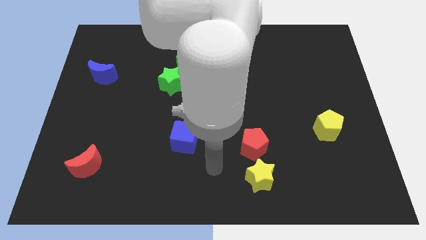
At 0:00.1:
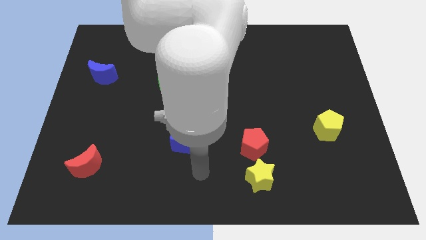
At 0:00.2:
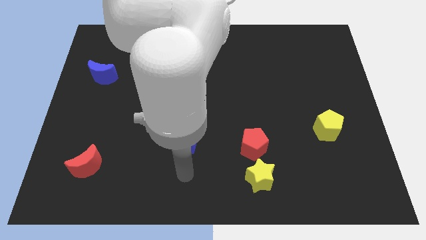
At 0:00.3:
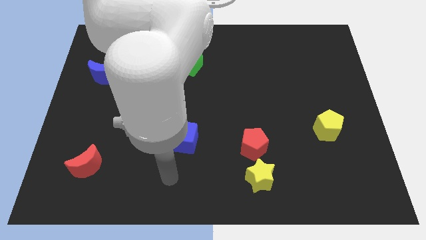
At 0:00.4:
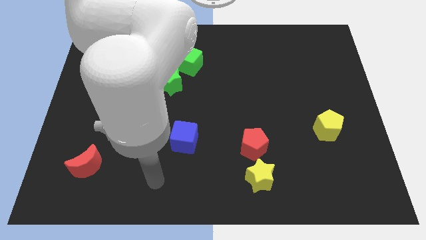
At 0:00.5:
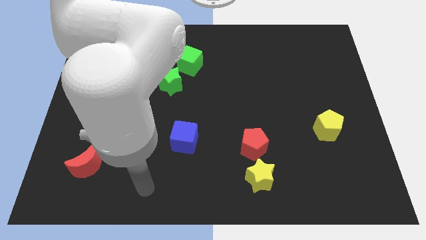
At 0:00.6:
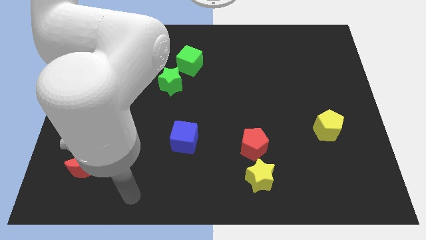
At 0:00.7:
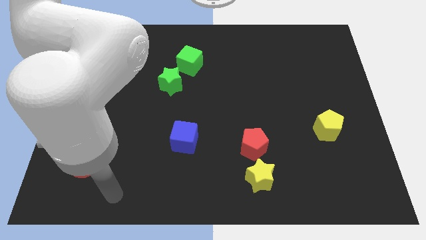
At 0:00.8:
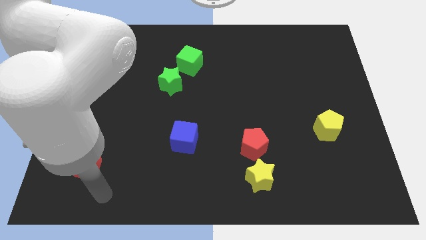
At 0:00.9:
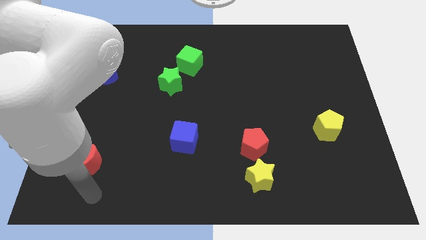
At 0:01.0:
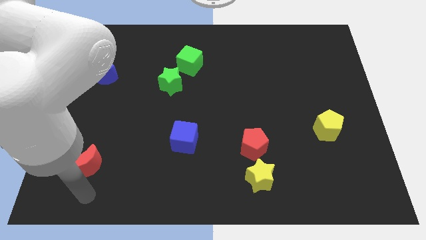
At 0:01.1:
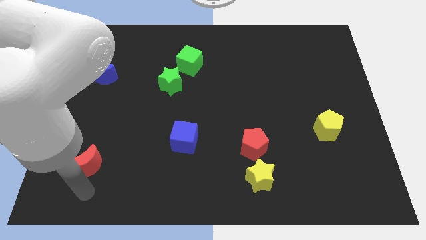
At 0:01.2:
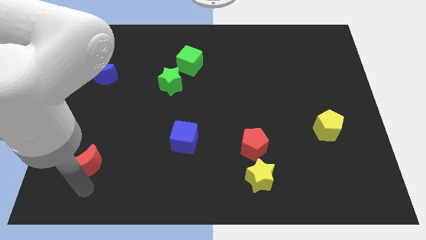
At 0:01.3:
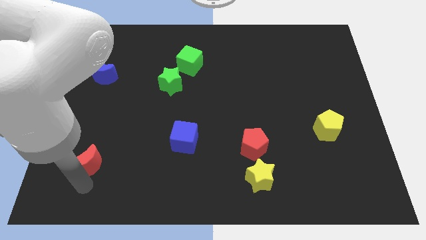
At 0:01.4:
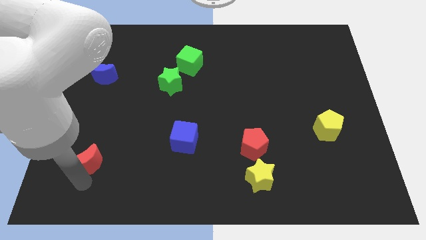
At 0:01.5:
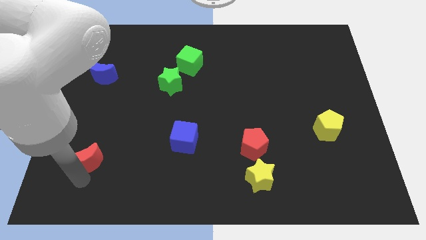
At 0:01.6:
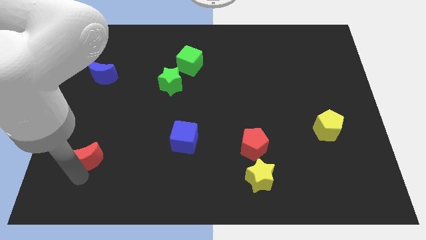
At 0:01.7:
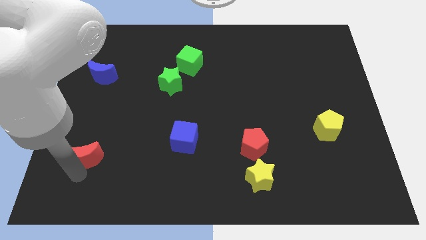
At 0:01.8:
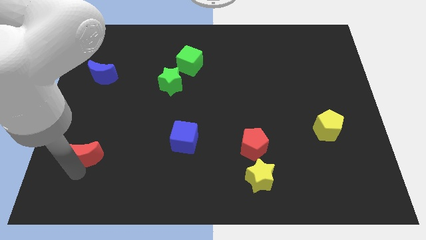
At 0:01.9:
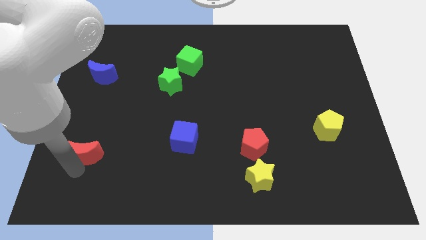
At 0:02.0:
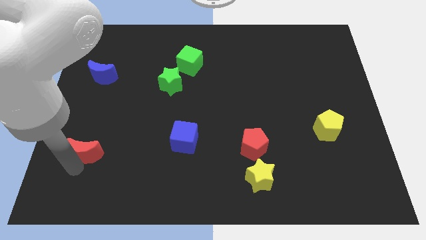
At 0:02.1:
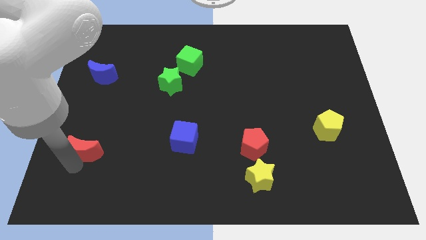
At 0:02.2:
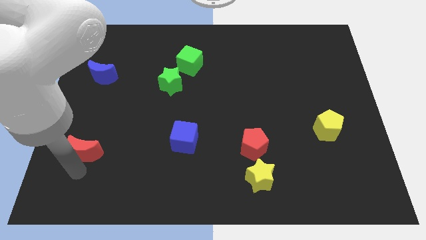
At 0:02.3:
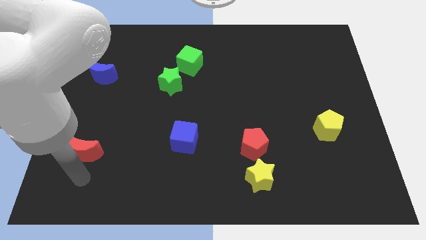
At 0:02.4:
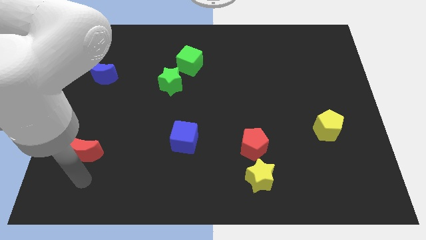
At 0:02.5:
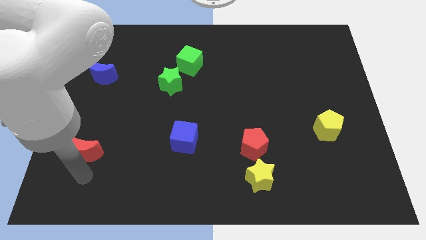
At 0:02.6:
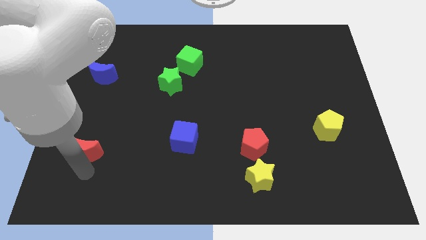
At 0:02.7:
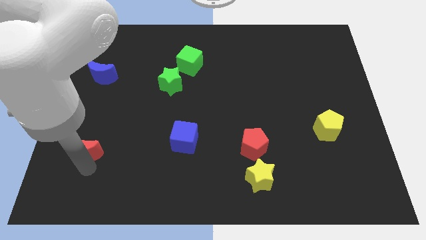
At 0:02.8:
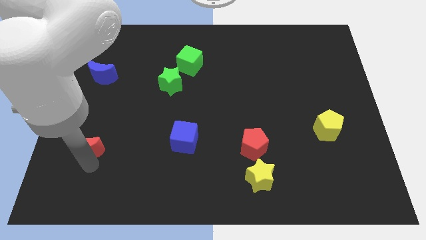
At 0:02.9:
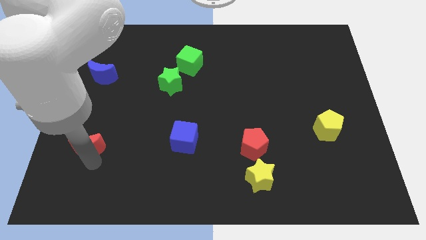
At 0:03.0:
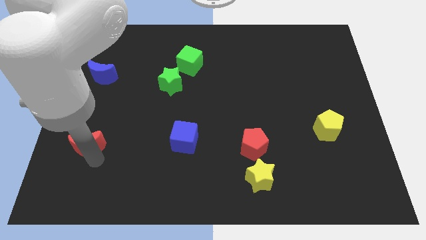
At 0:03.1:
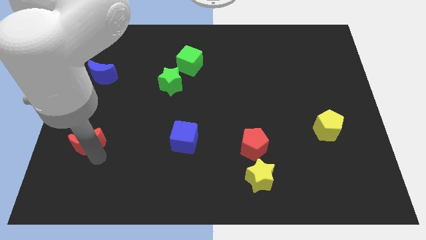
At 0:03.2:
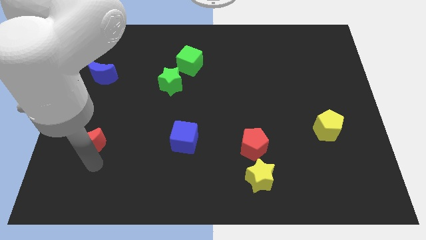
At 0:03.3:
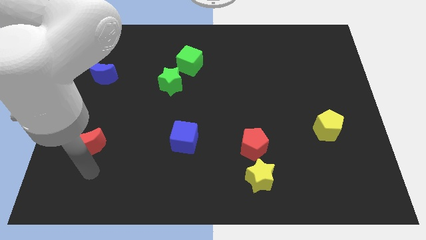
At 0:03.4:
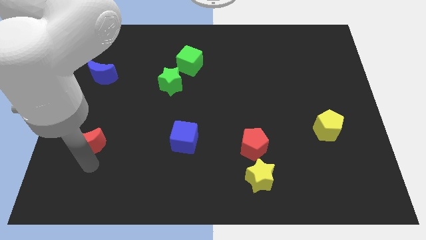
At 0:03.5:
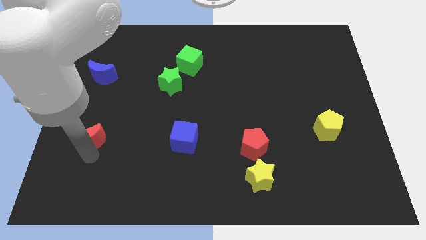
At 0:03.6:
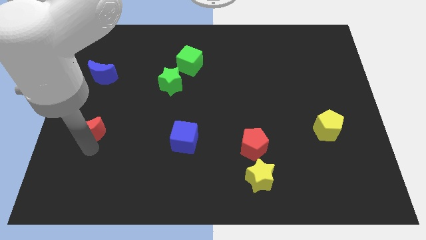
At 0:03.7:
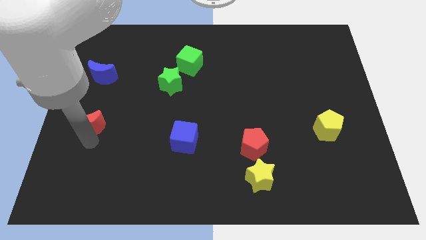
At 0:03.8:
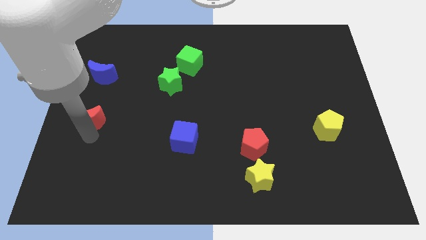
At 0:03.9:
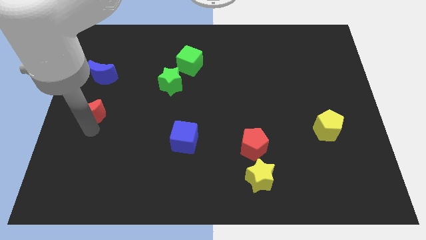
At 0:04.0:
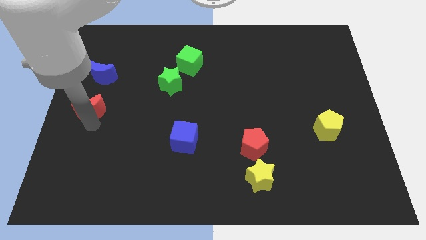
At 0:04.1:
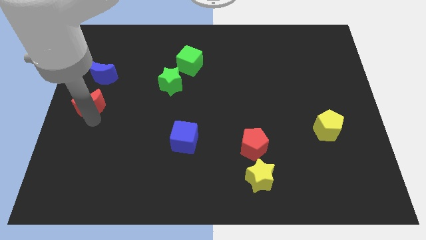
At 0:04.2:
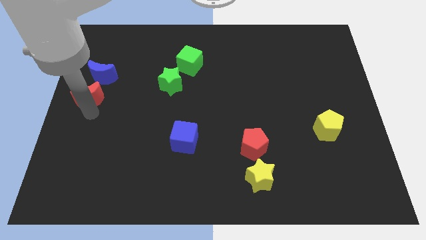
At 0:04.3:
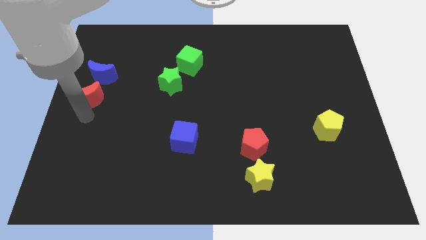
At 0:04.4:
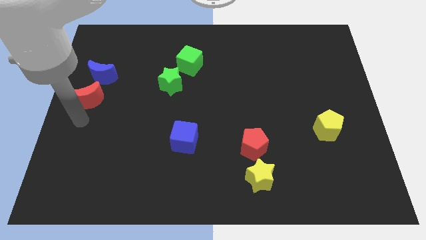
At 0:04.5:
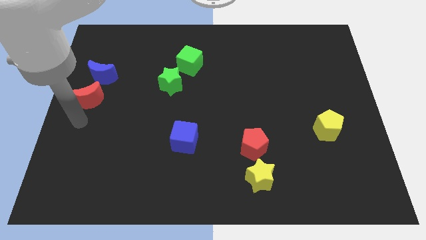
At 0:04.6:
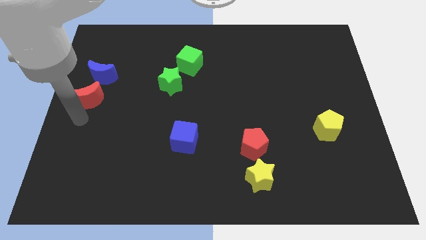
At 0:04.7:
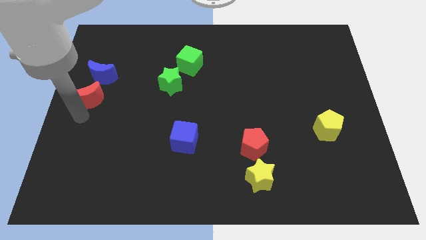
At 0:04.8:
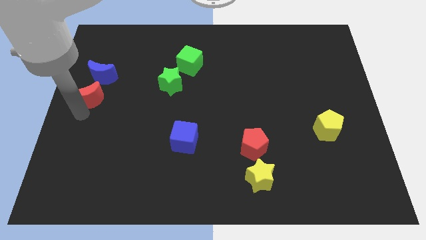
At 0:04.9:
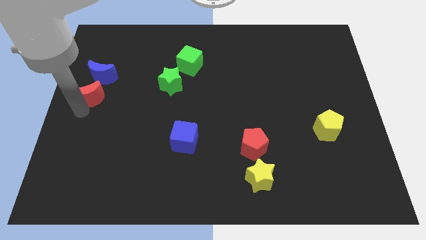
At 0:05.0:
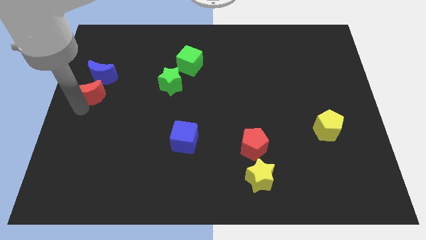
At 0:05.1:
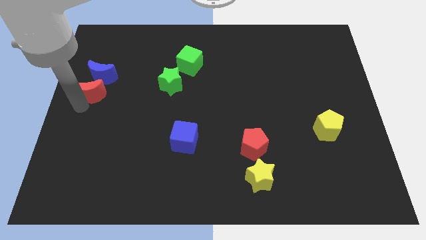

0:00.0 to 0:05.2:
move the red moon next to the blue moon

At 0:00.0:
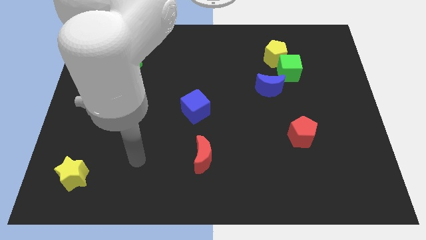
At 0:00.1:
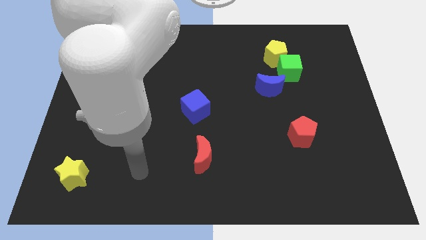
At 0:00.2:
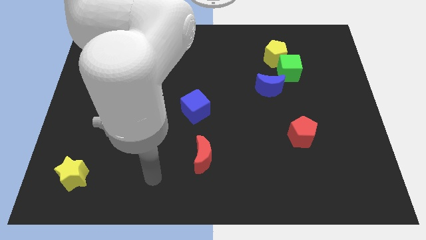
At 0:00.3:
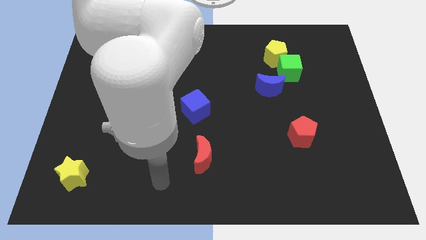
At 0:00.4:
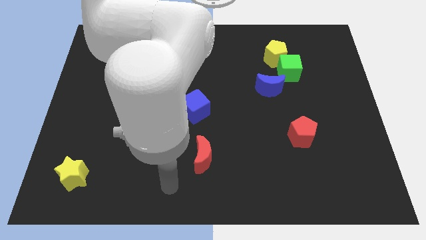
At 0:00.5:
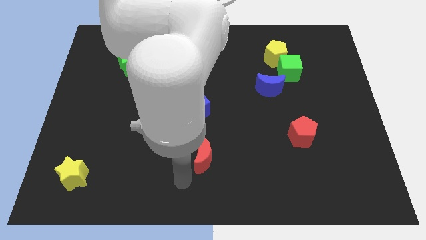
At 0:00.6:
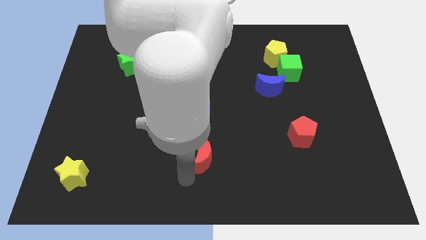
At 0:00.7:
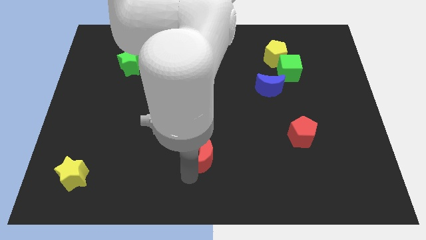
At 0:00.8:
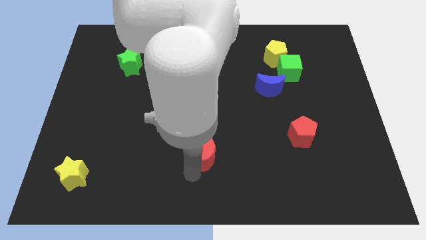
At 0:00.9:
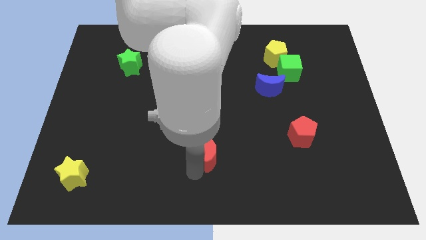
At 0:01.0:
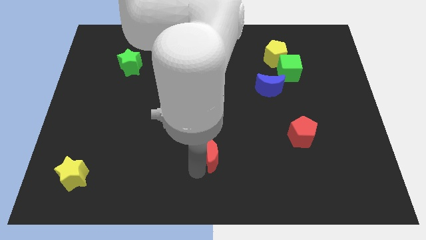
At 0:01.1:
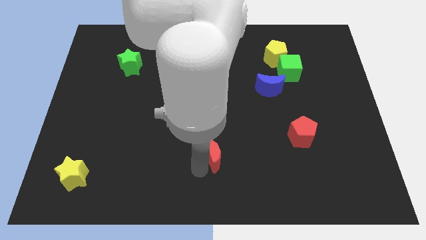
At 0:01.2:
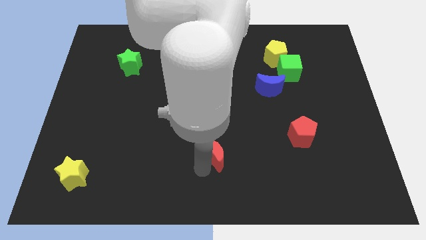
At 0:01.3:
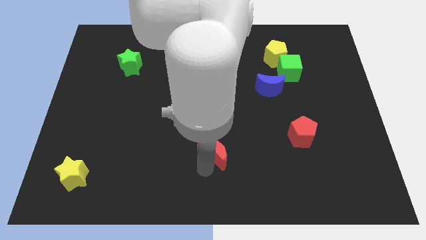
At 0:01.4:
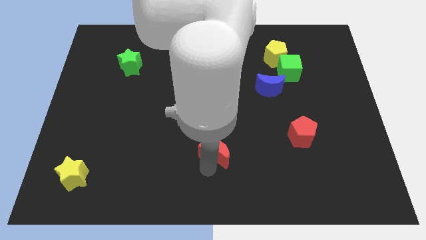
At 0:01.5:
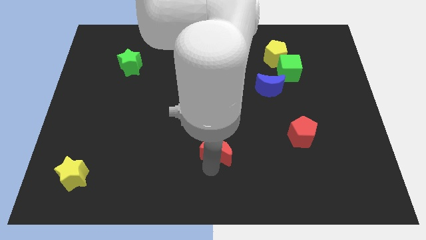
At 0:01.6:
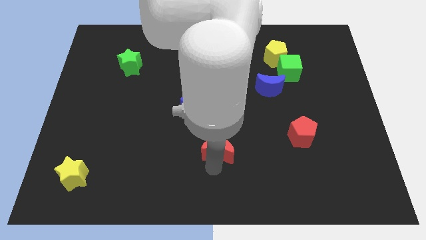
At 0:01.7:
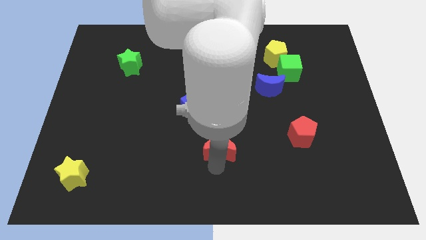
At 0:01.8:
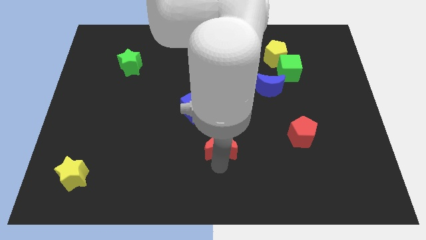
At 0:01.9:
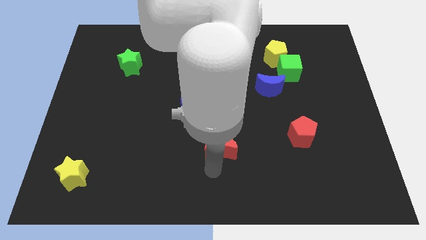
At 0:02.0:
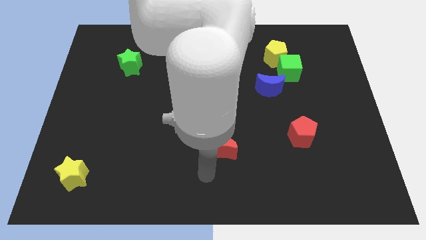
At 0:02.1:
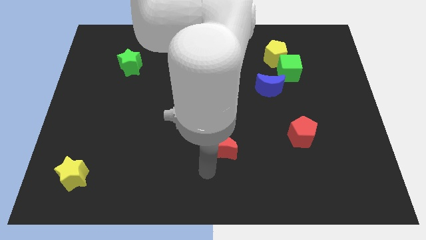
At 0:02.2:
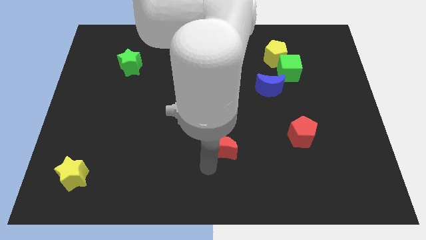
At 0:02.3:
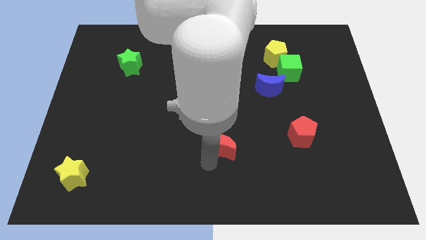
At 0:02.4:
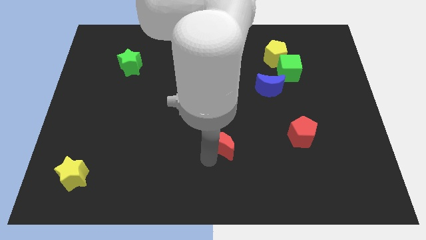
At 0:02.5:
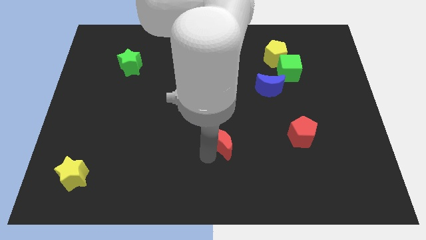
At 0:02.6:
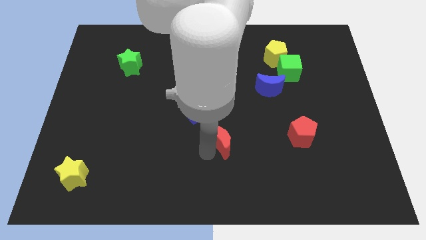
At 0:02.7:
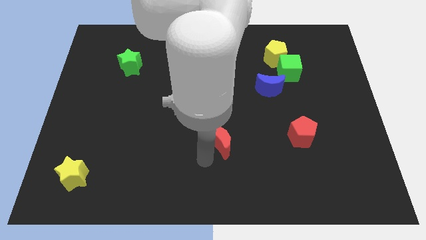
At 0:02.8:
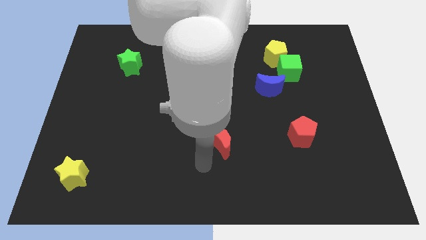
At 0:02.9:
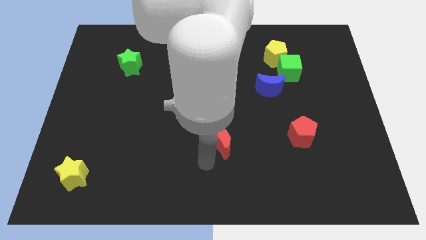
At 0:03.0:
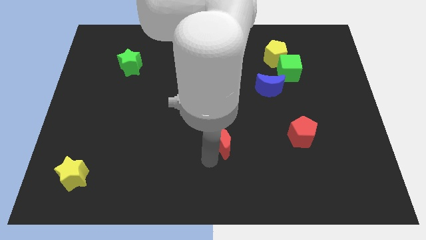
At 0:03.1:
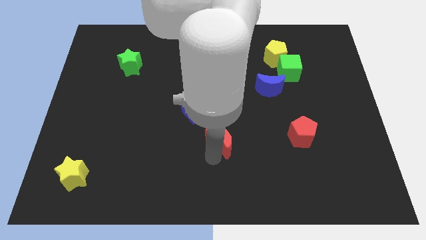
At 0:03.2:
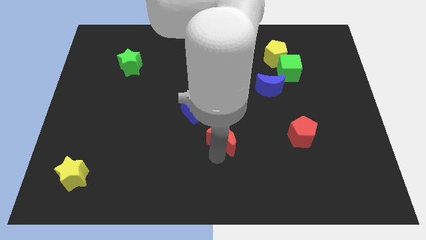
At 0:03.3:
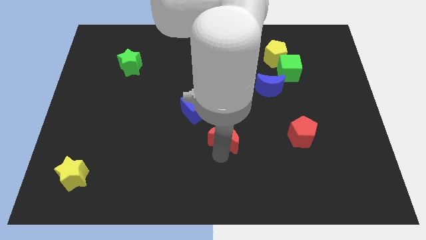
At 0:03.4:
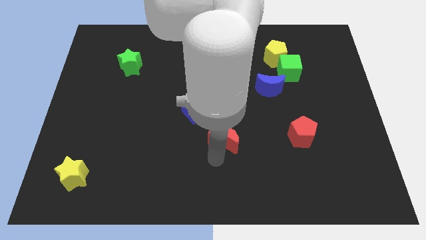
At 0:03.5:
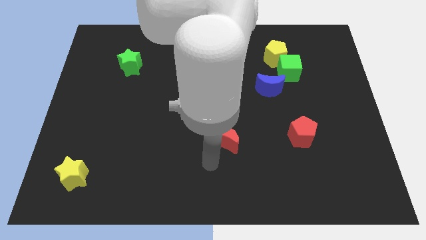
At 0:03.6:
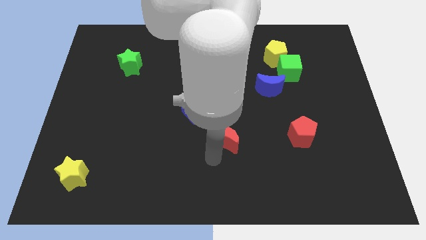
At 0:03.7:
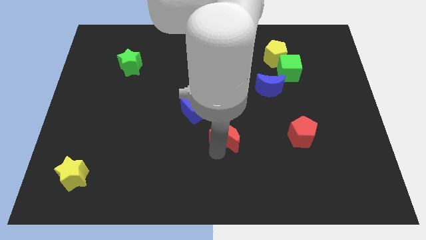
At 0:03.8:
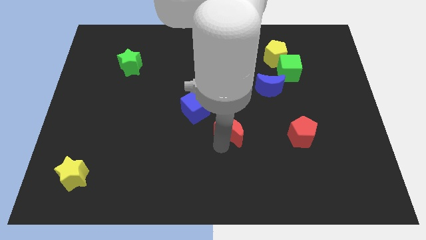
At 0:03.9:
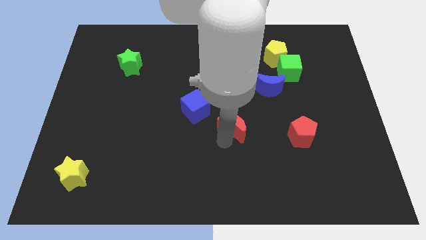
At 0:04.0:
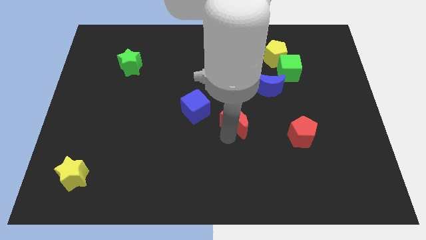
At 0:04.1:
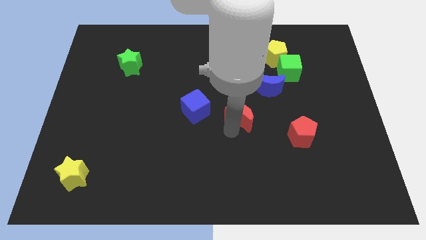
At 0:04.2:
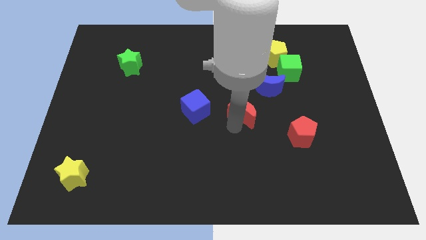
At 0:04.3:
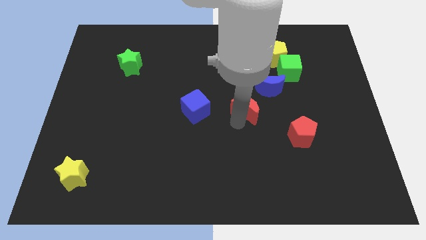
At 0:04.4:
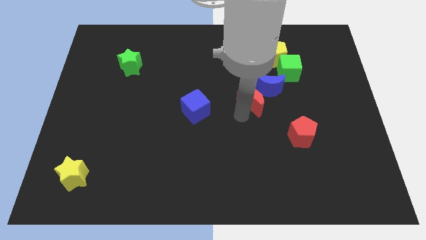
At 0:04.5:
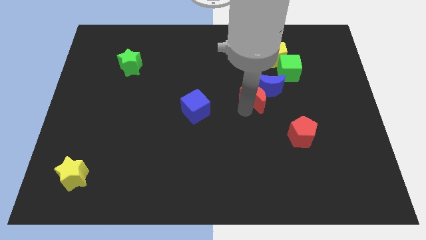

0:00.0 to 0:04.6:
move the red moon to the blue moon
